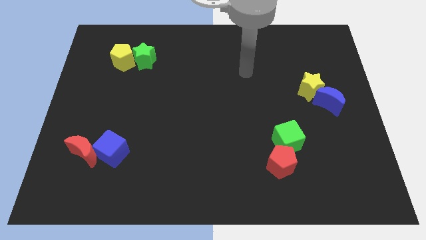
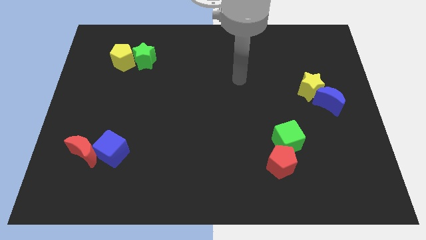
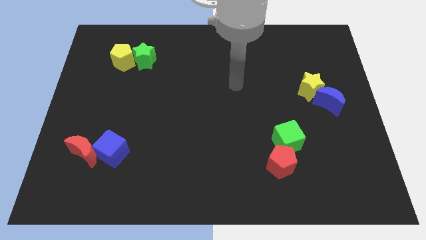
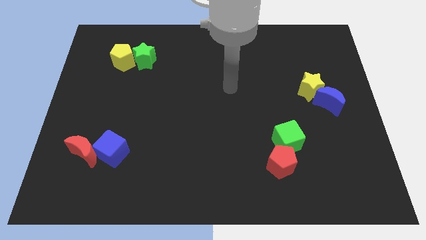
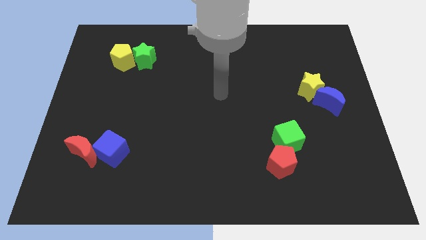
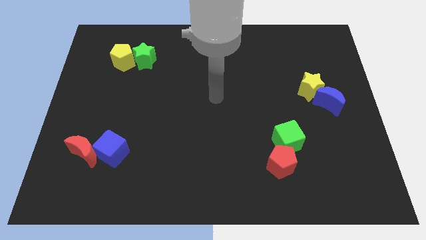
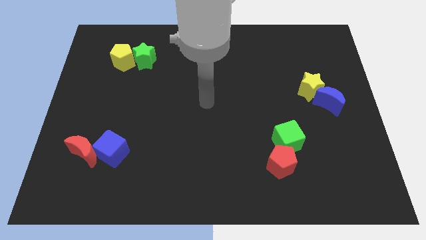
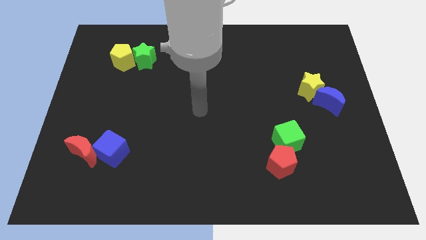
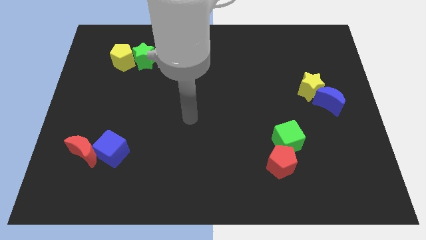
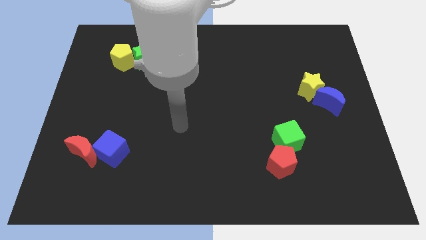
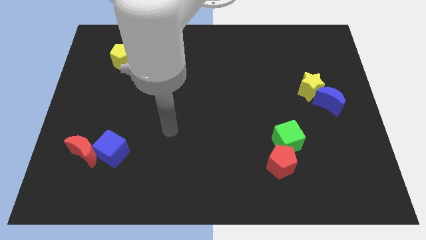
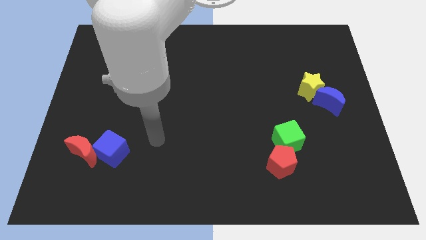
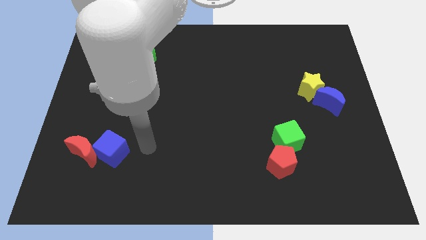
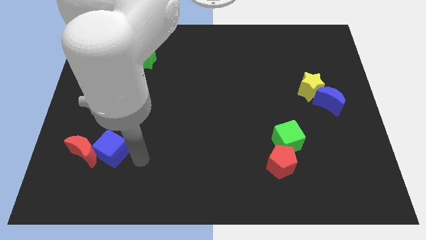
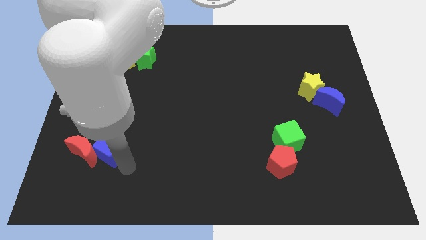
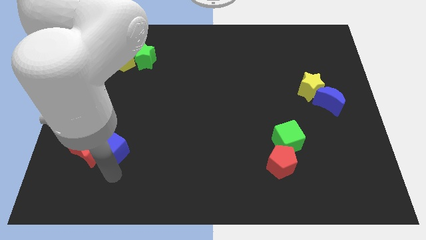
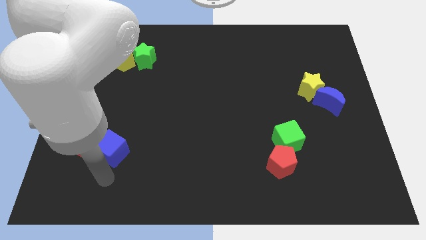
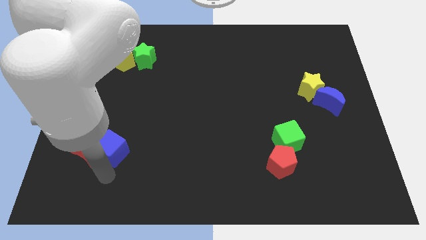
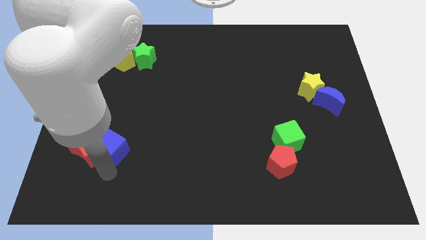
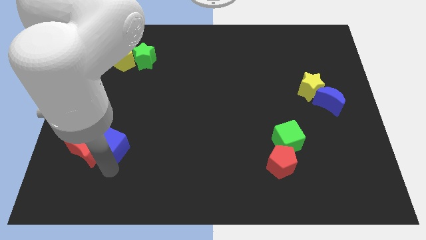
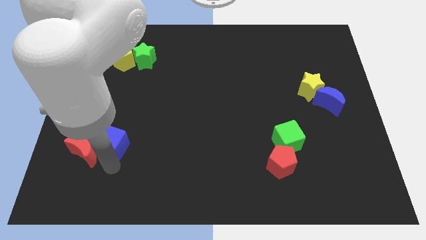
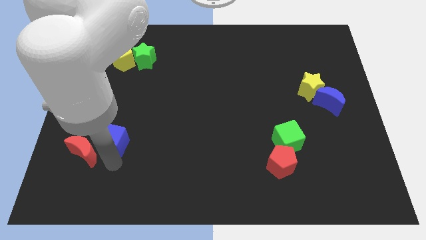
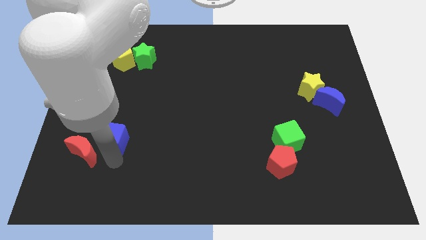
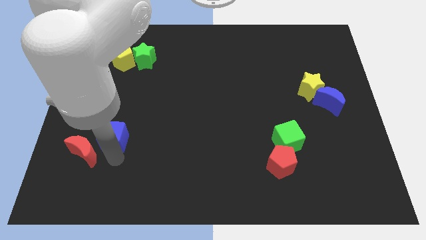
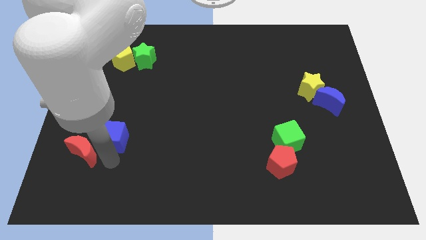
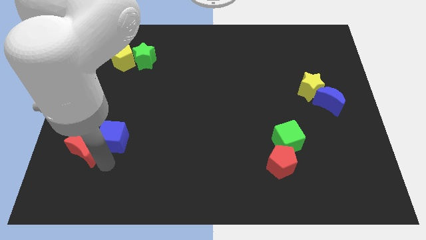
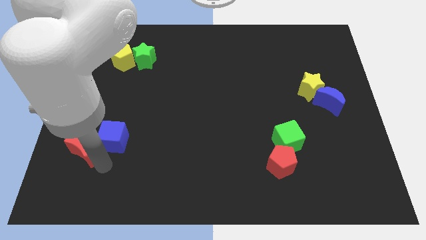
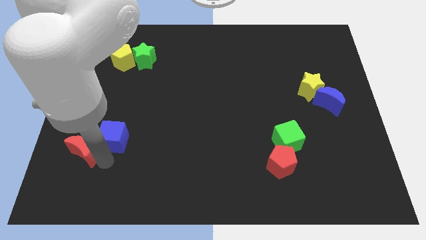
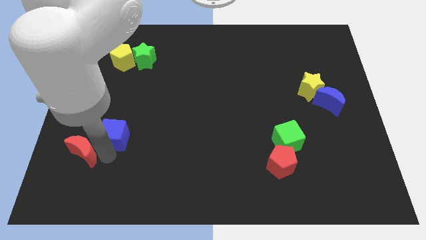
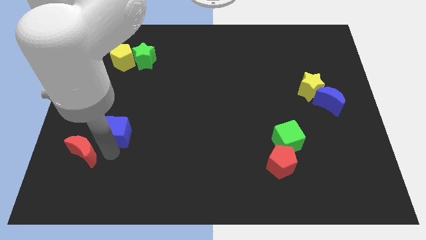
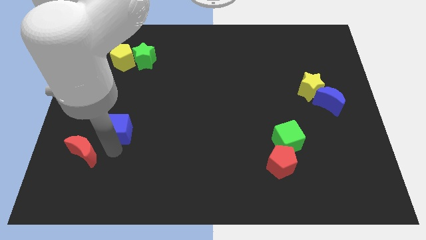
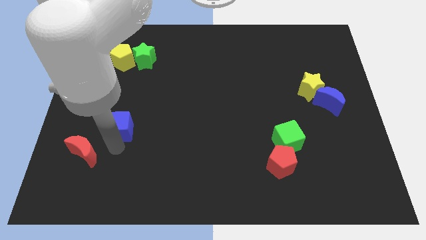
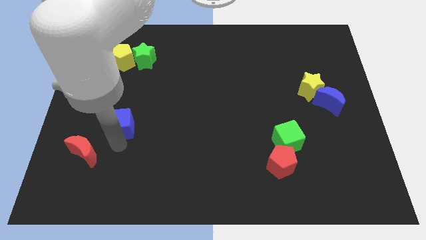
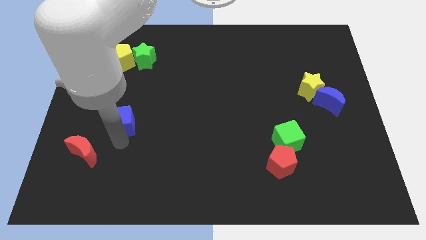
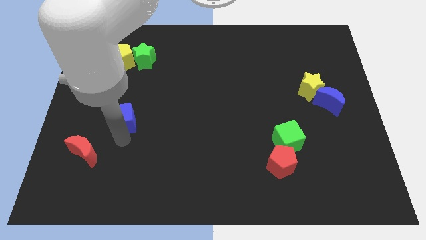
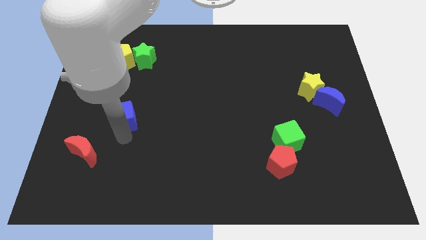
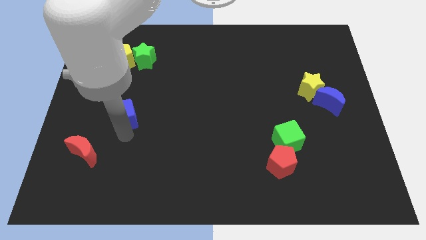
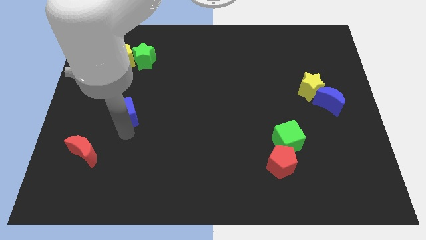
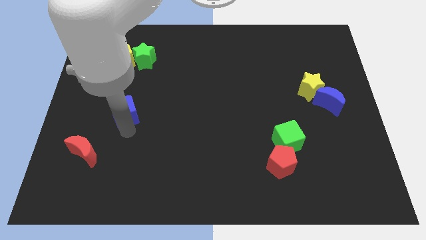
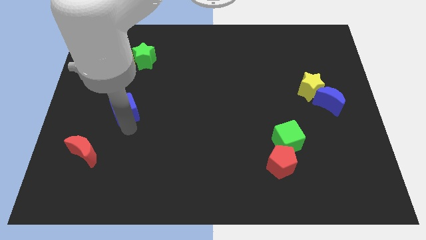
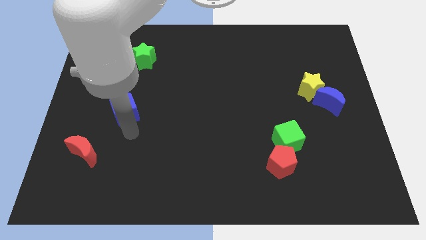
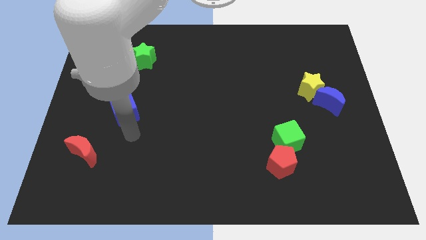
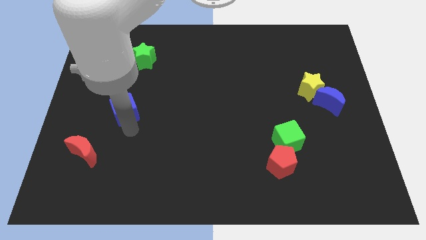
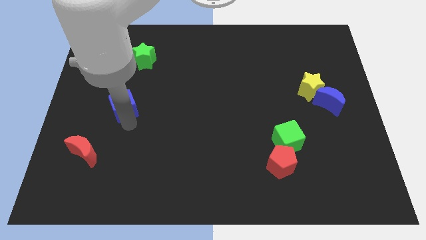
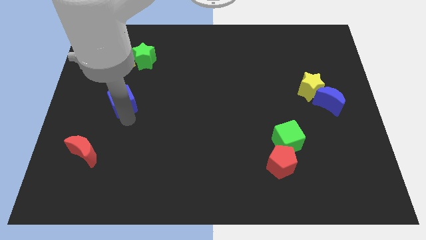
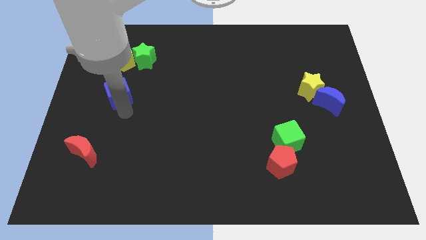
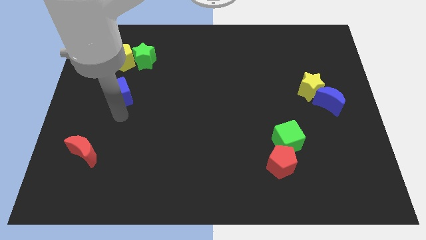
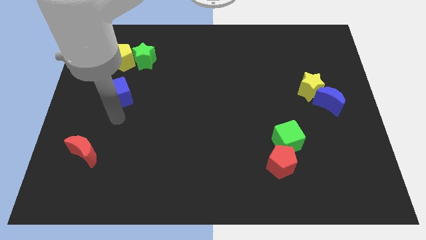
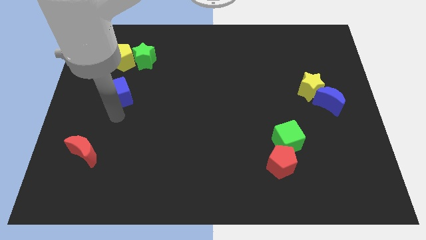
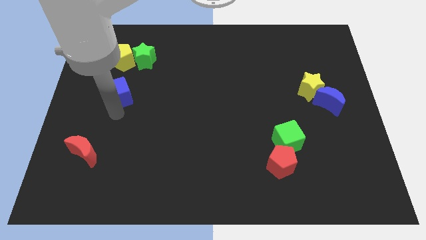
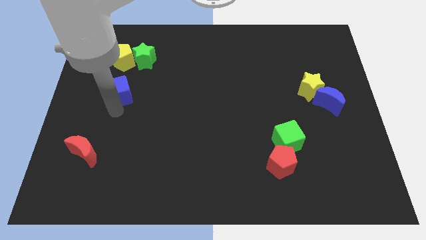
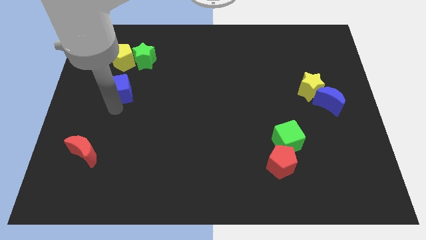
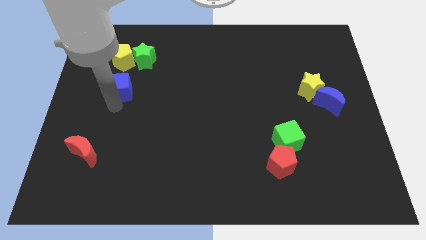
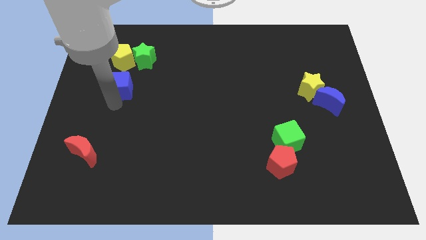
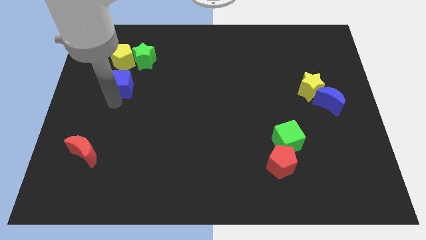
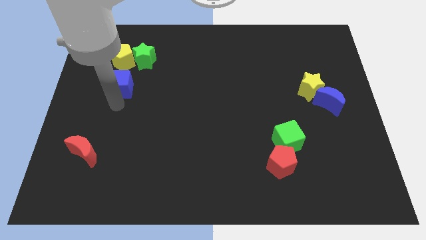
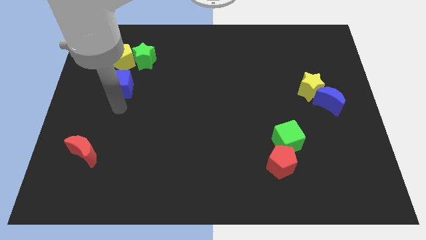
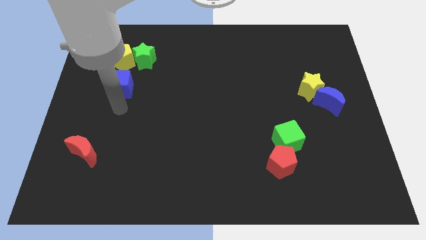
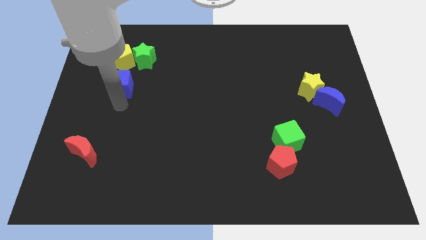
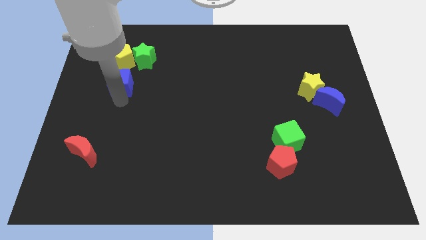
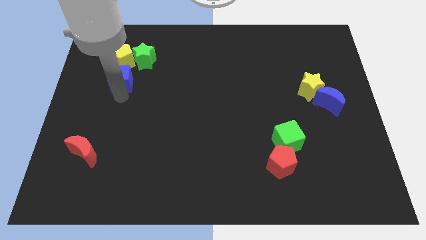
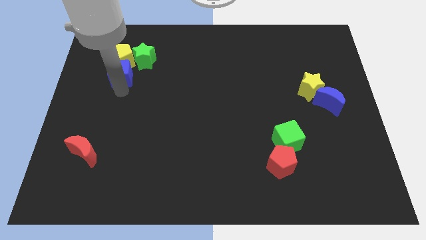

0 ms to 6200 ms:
push the blue cube next to the yellow pentagon

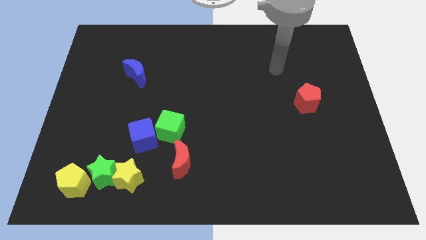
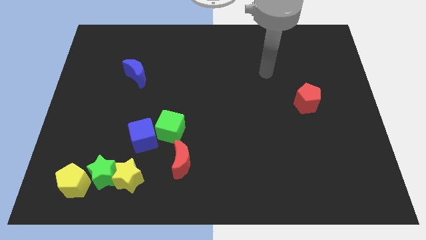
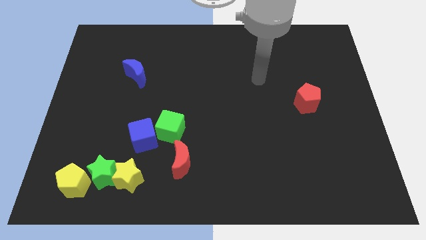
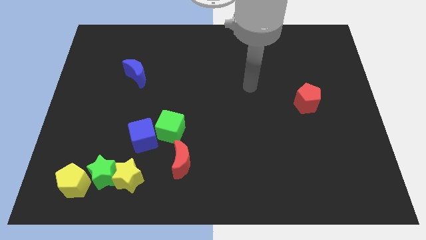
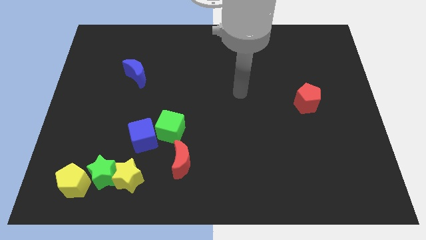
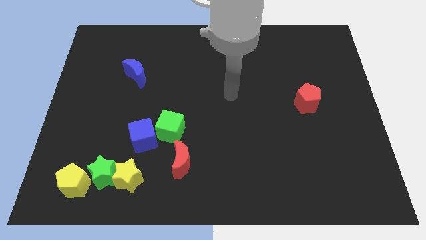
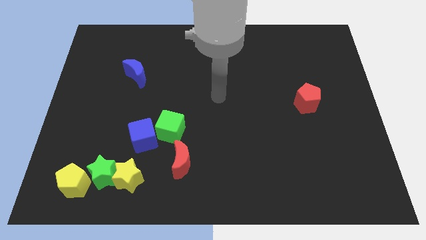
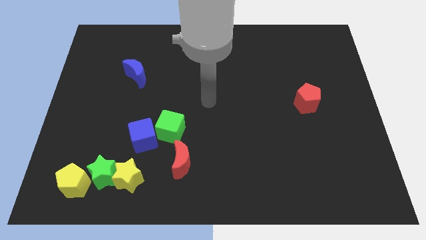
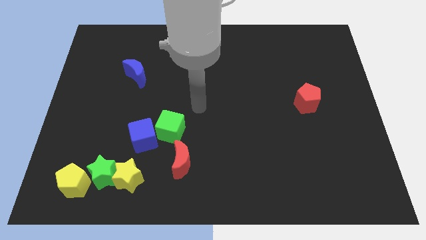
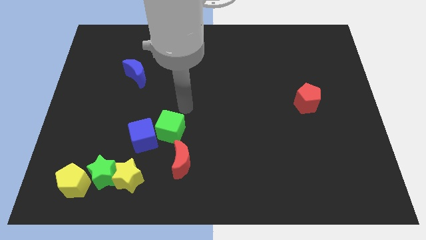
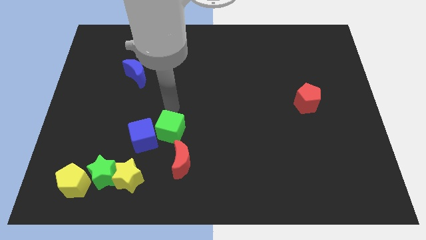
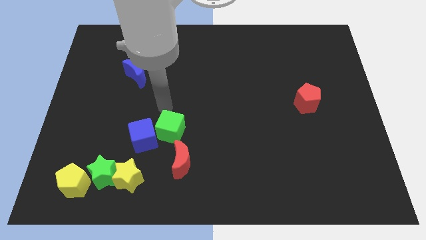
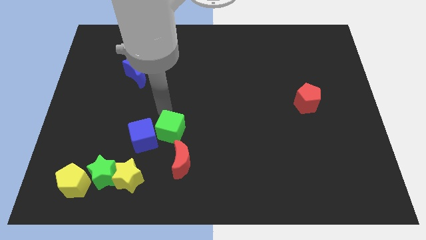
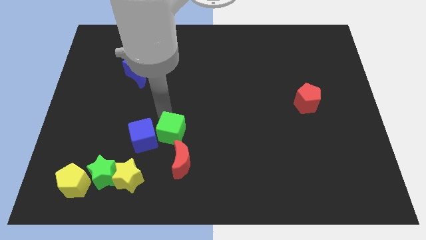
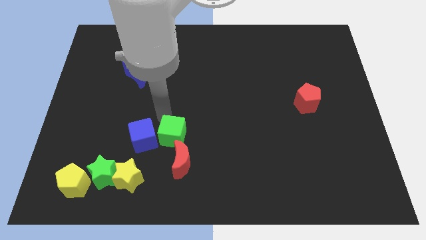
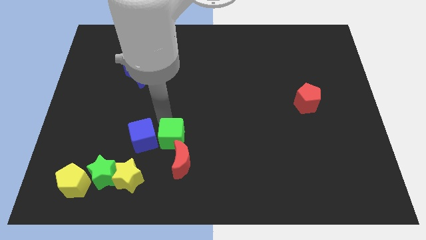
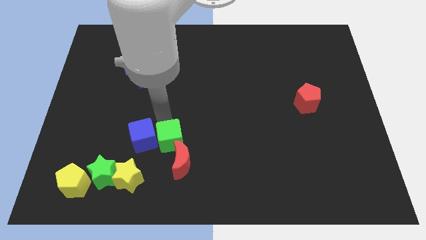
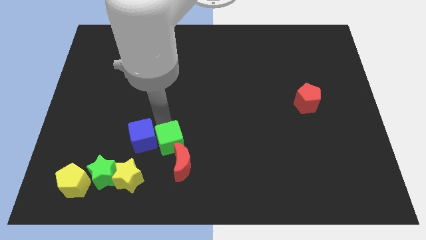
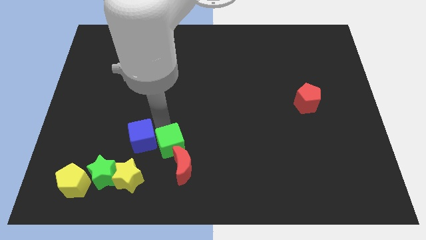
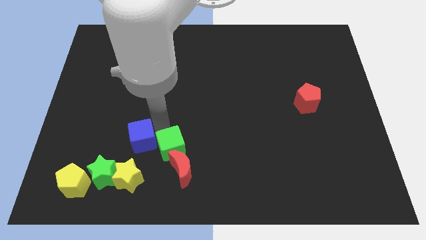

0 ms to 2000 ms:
put the green cube to the red moon
